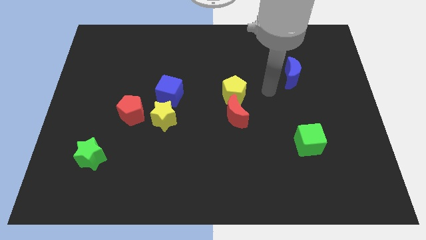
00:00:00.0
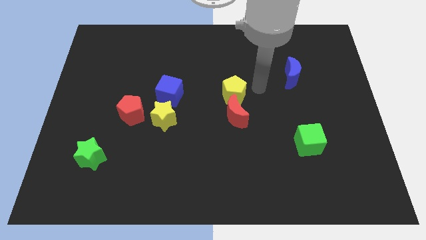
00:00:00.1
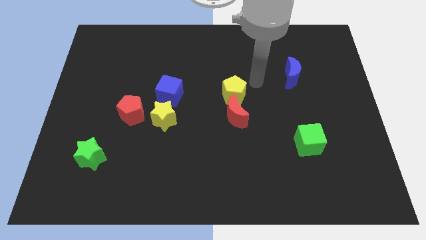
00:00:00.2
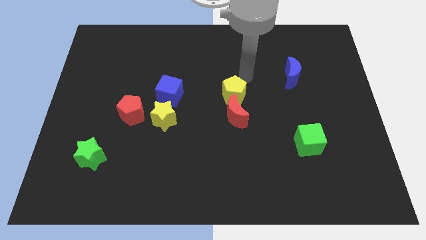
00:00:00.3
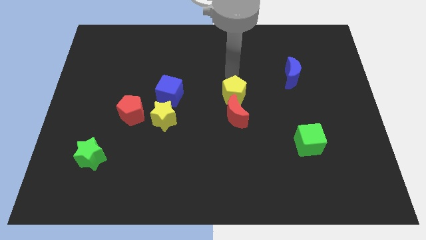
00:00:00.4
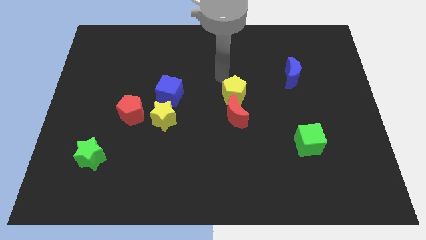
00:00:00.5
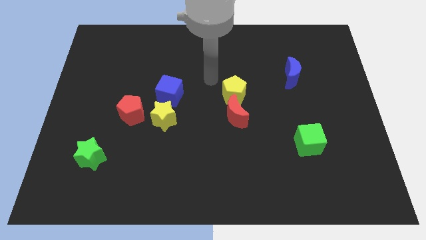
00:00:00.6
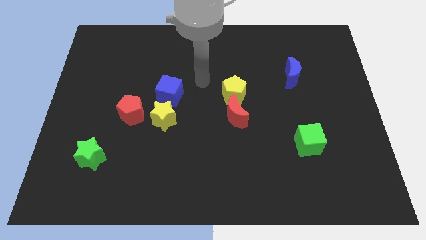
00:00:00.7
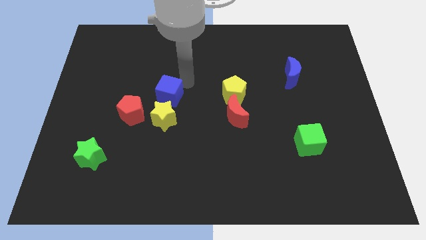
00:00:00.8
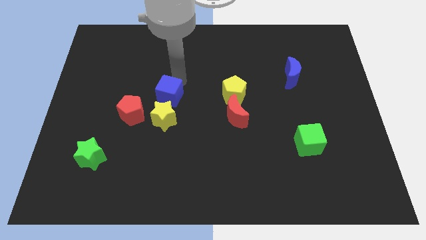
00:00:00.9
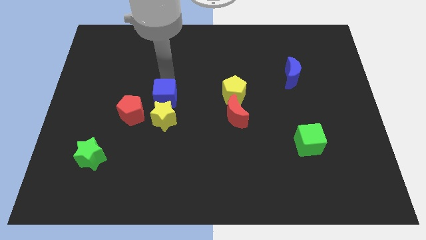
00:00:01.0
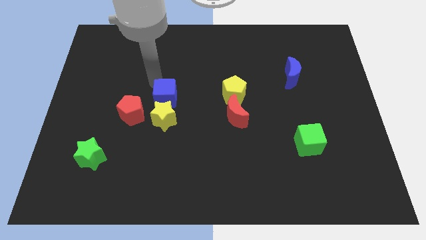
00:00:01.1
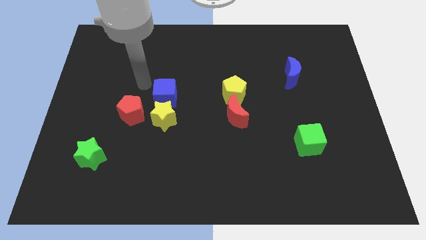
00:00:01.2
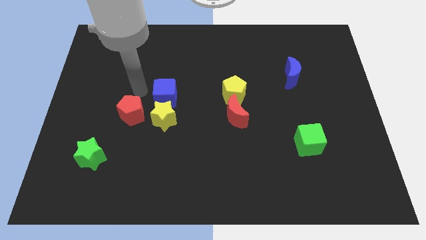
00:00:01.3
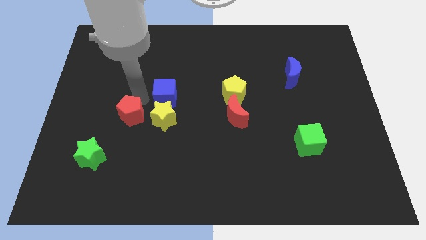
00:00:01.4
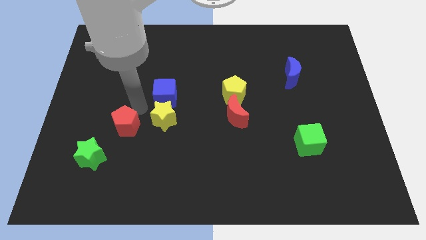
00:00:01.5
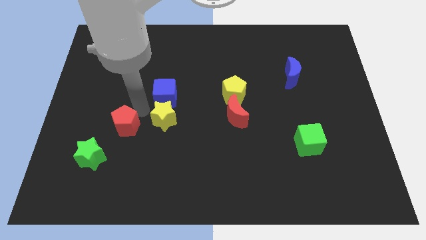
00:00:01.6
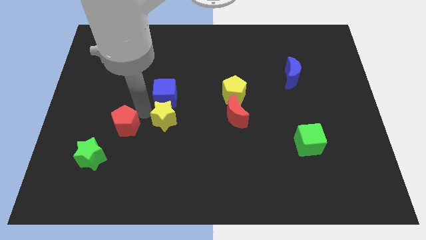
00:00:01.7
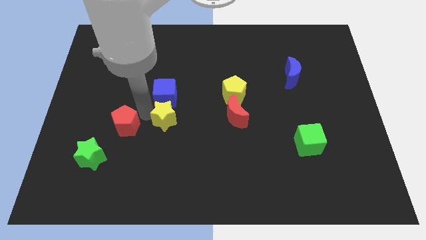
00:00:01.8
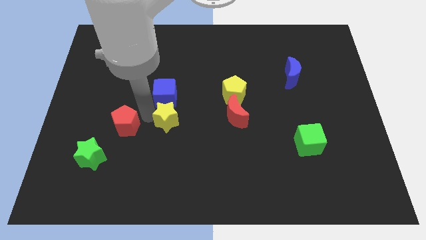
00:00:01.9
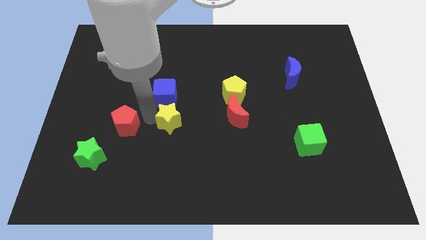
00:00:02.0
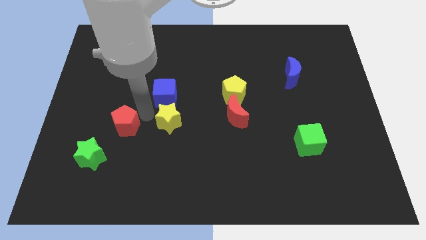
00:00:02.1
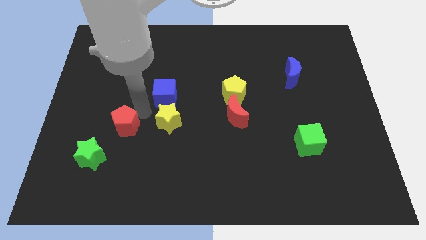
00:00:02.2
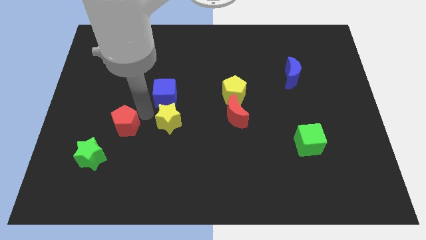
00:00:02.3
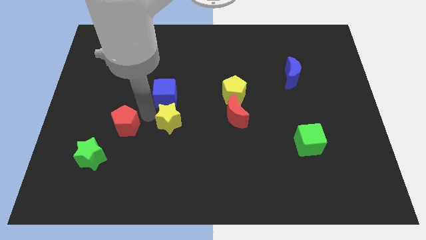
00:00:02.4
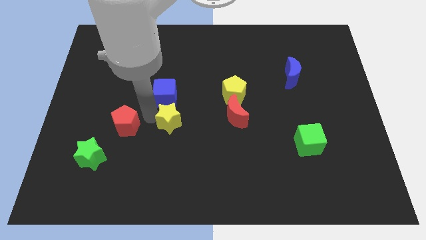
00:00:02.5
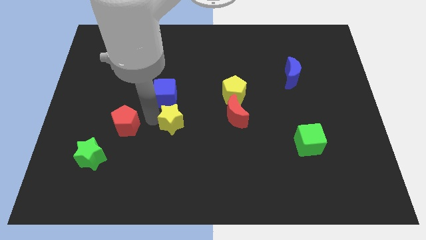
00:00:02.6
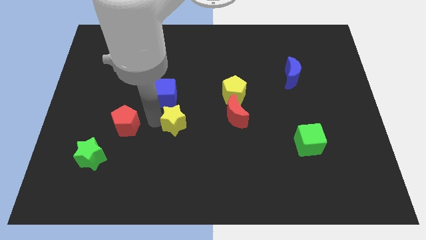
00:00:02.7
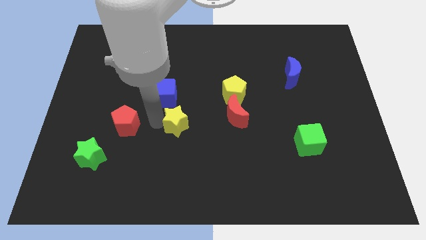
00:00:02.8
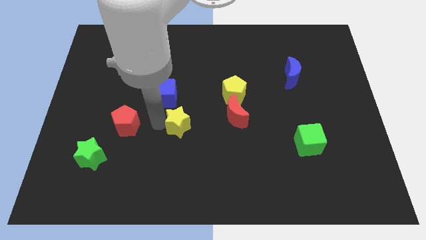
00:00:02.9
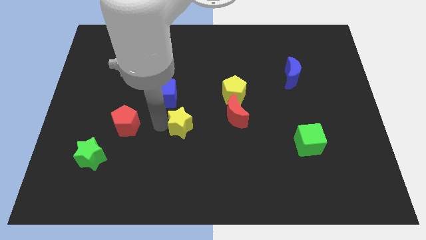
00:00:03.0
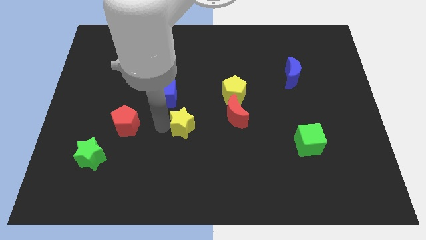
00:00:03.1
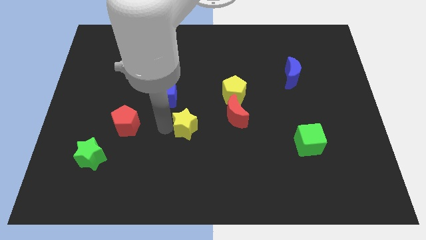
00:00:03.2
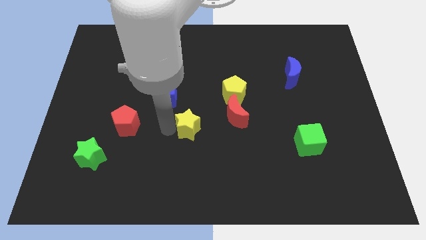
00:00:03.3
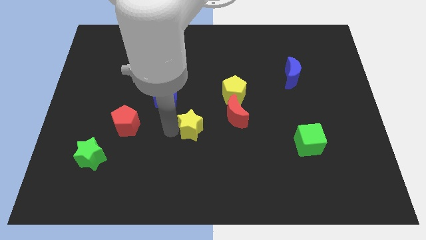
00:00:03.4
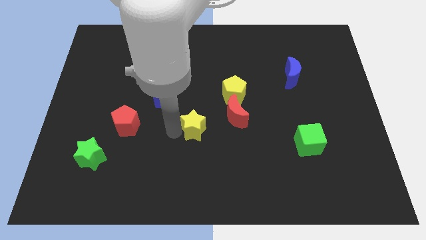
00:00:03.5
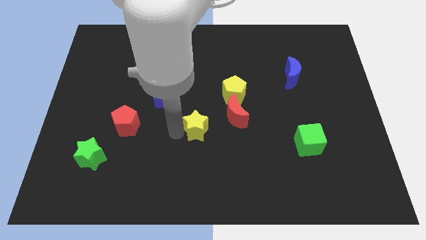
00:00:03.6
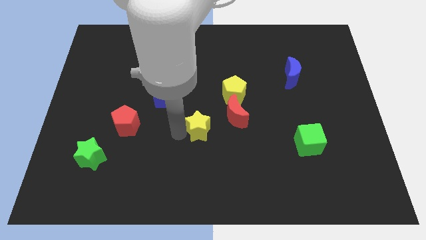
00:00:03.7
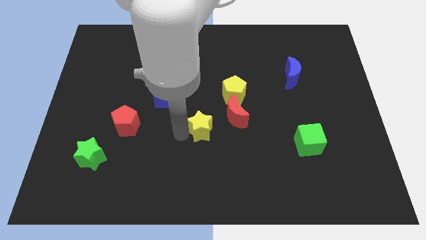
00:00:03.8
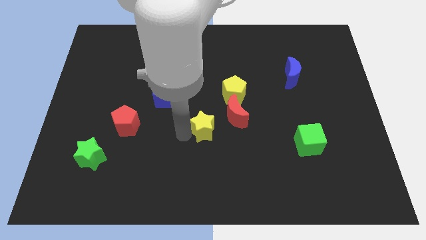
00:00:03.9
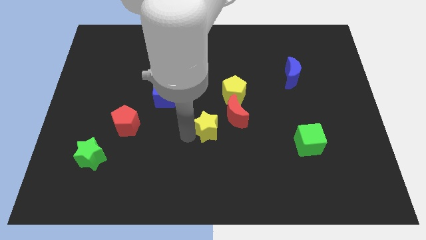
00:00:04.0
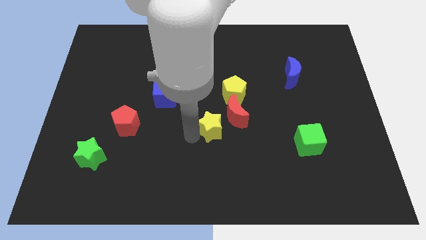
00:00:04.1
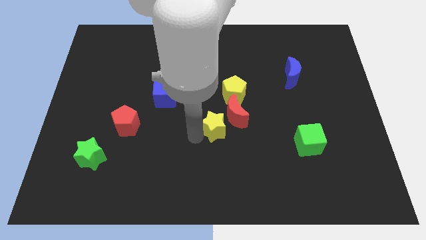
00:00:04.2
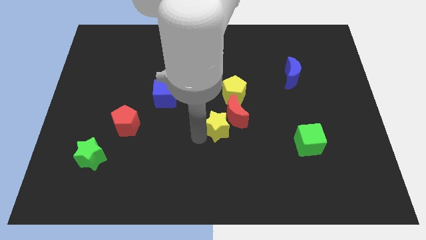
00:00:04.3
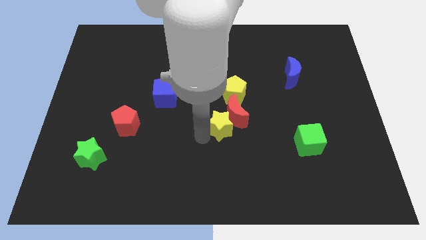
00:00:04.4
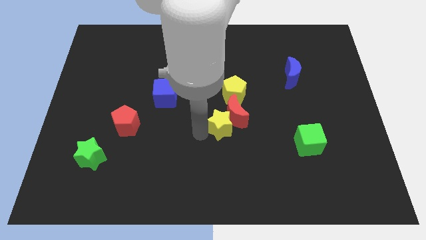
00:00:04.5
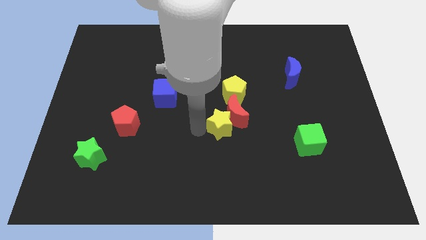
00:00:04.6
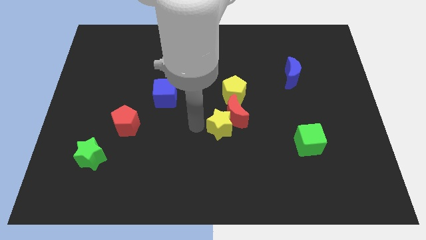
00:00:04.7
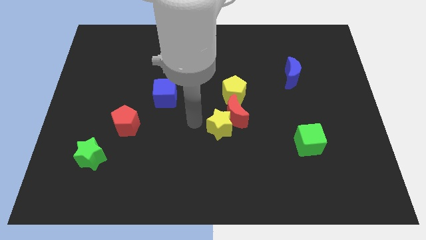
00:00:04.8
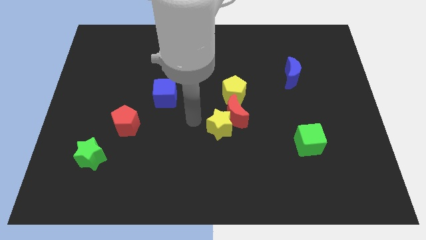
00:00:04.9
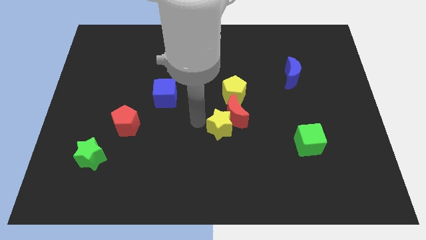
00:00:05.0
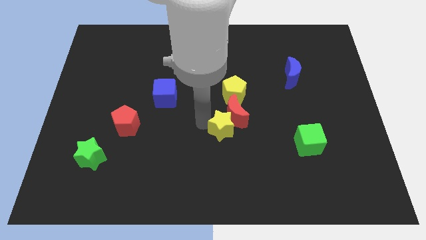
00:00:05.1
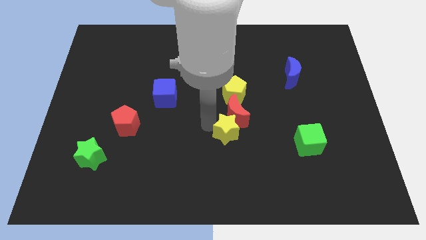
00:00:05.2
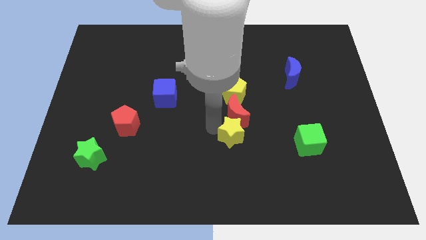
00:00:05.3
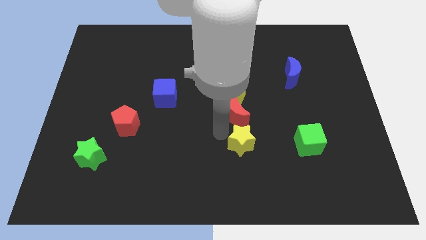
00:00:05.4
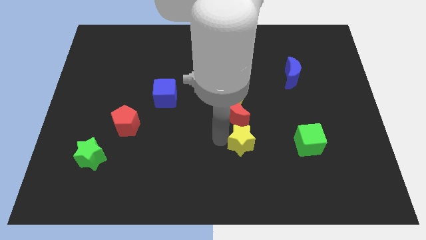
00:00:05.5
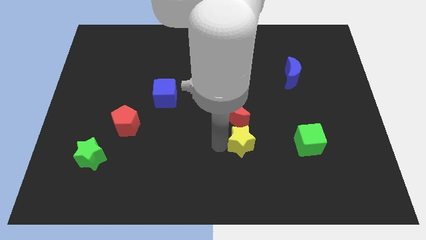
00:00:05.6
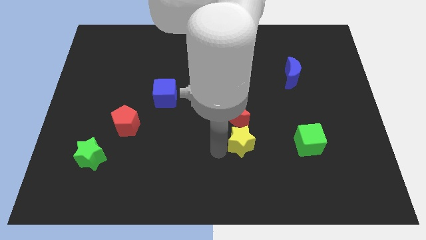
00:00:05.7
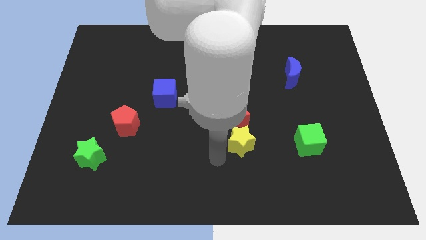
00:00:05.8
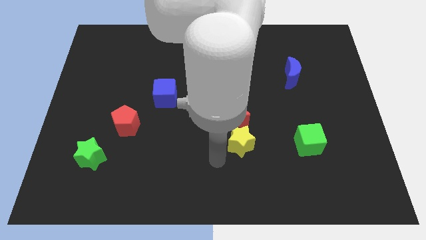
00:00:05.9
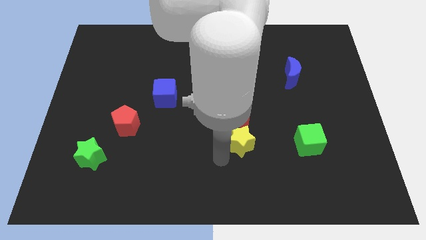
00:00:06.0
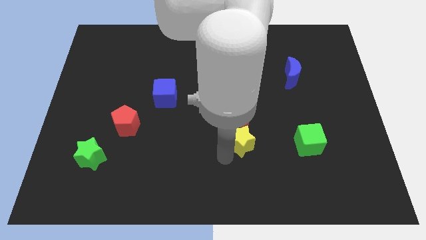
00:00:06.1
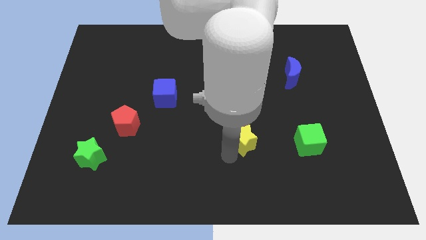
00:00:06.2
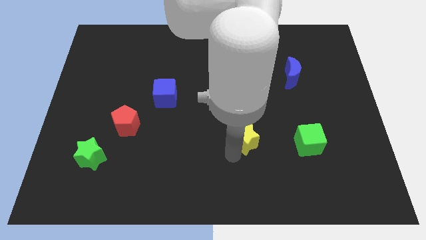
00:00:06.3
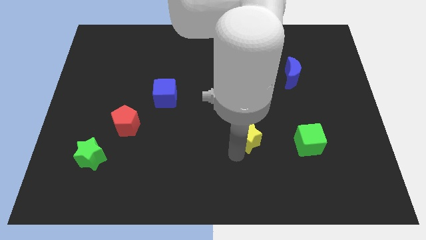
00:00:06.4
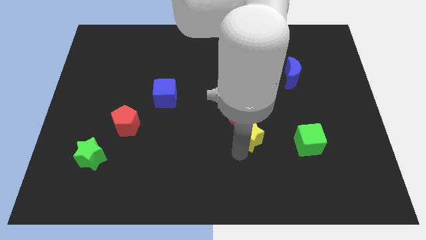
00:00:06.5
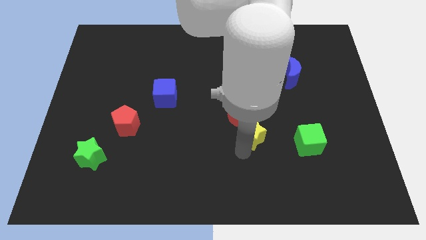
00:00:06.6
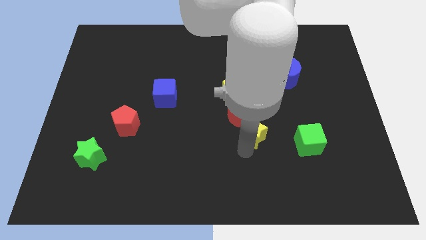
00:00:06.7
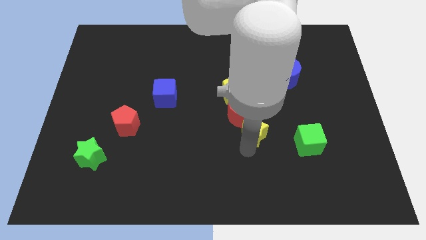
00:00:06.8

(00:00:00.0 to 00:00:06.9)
move the yellow star right

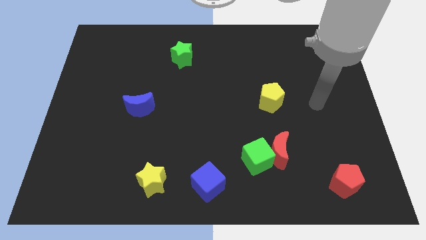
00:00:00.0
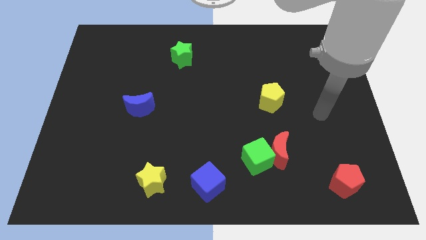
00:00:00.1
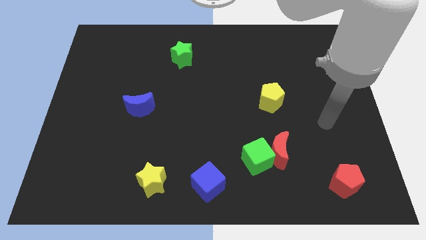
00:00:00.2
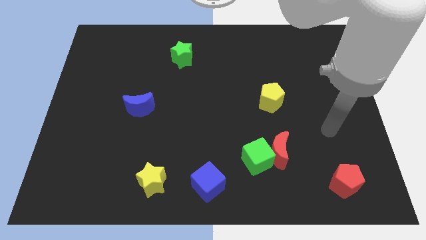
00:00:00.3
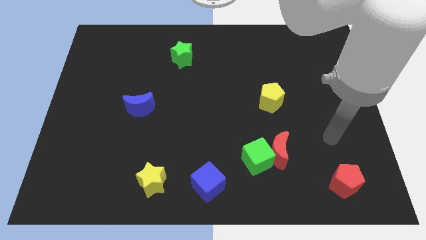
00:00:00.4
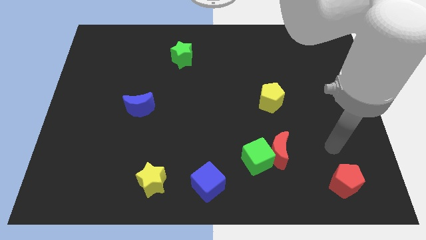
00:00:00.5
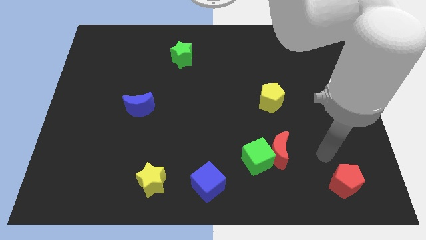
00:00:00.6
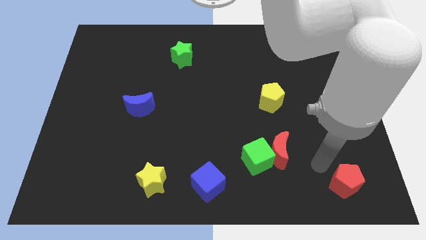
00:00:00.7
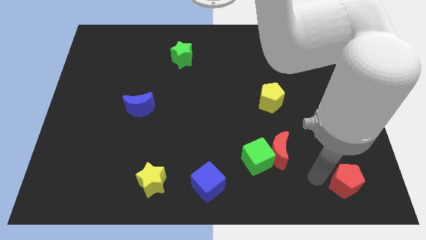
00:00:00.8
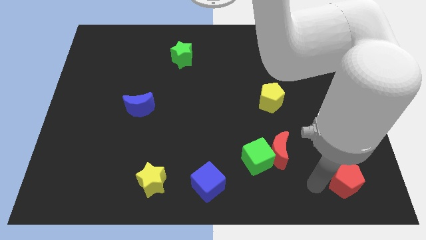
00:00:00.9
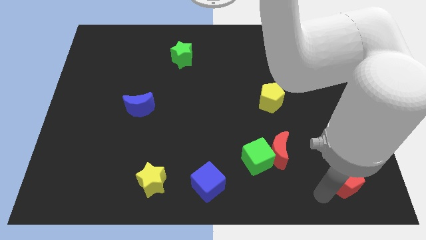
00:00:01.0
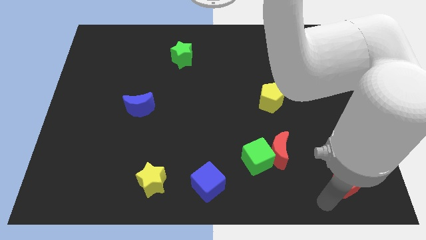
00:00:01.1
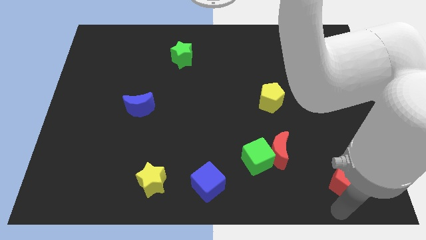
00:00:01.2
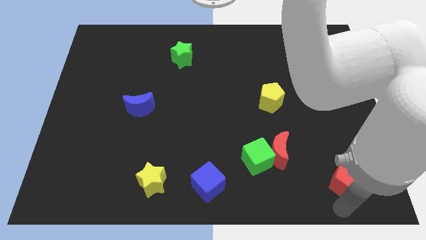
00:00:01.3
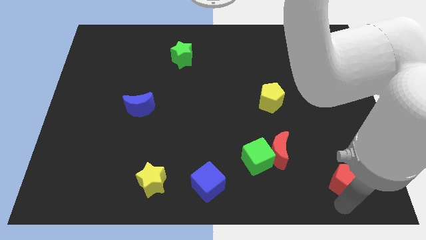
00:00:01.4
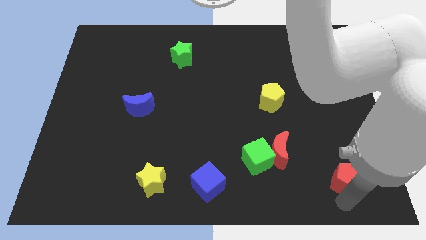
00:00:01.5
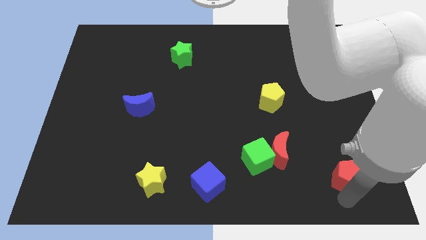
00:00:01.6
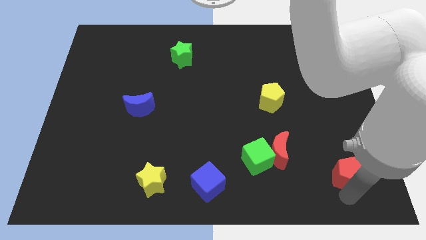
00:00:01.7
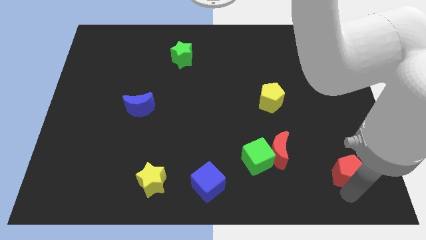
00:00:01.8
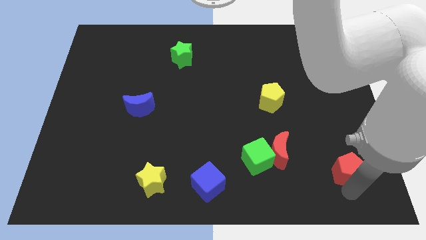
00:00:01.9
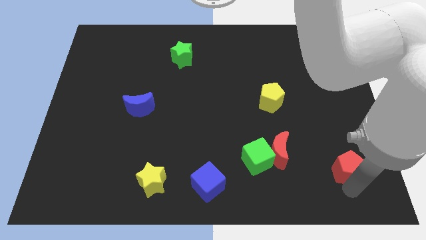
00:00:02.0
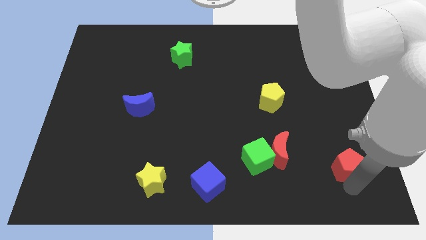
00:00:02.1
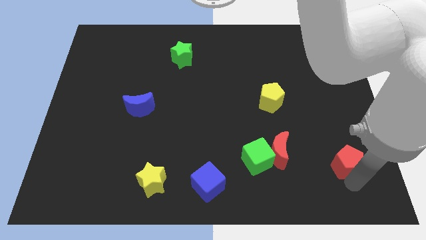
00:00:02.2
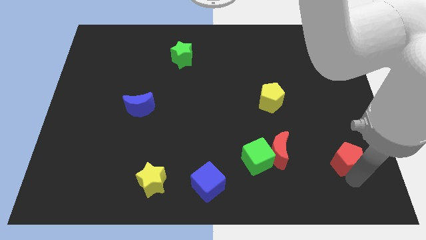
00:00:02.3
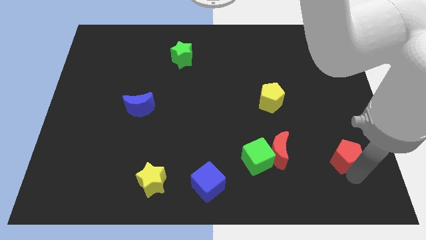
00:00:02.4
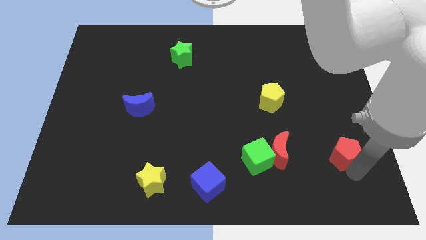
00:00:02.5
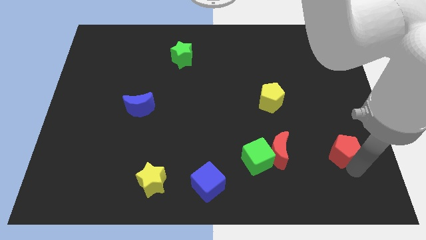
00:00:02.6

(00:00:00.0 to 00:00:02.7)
move the red pentagon somewhat up
